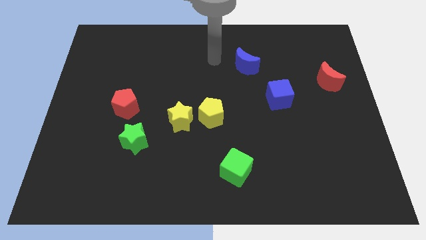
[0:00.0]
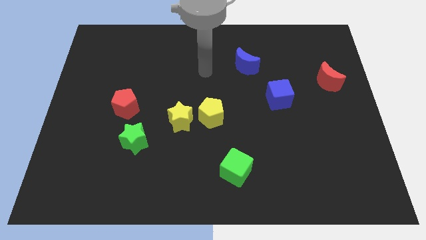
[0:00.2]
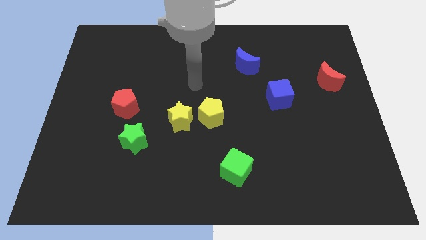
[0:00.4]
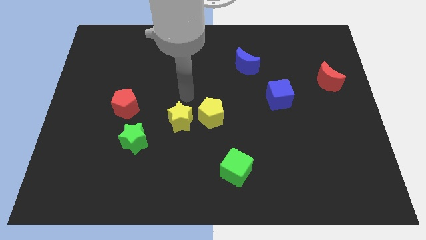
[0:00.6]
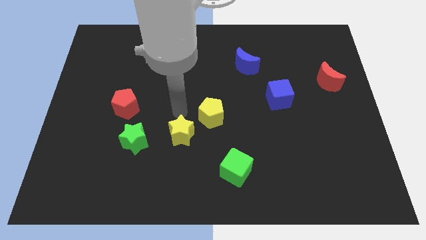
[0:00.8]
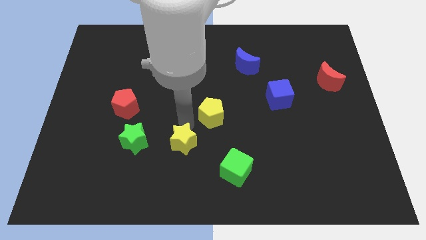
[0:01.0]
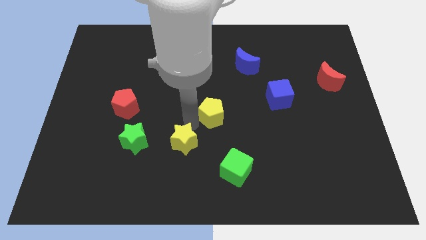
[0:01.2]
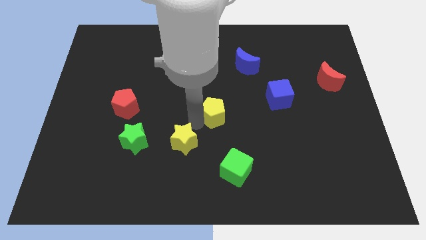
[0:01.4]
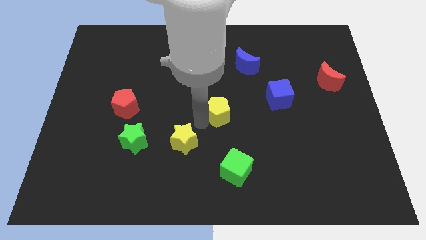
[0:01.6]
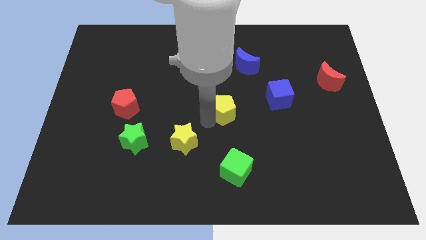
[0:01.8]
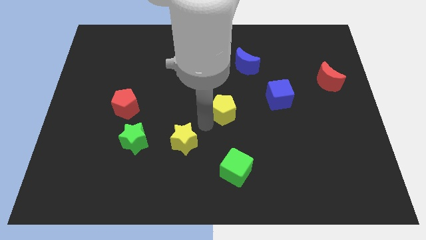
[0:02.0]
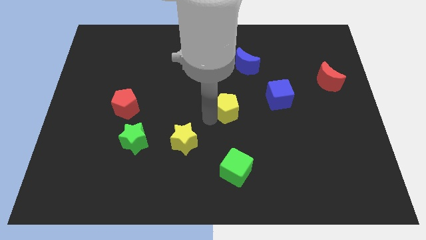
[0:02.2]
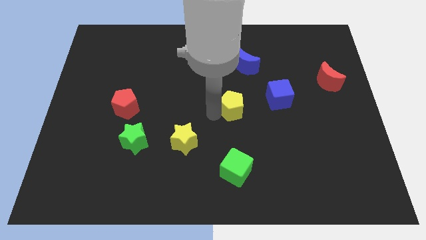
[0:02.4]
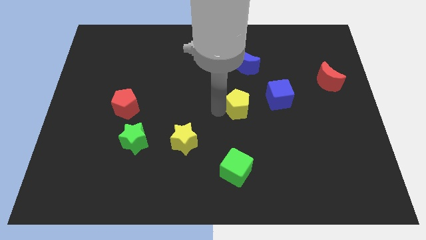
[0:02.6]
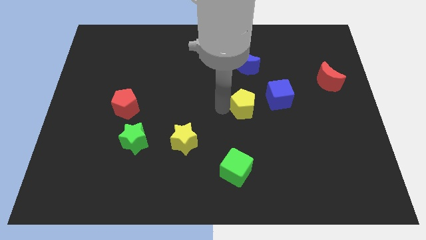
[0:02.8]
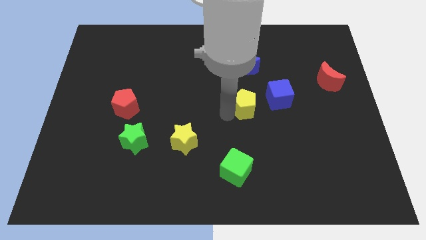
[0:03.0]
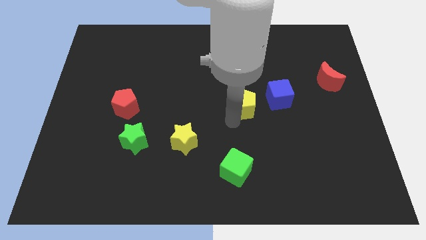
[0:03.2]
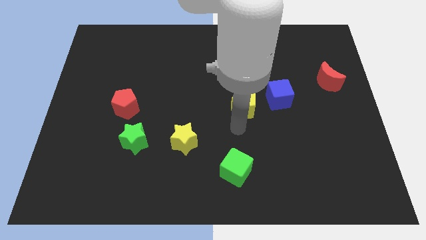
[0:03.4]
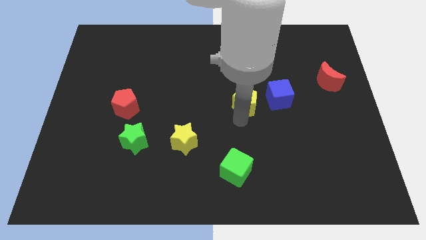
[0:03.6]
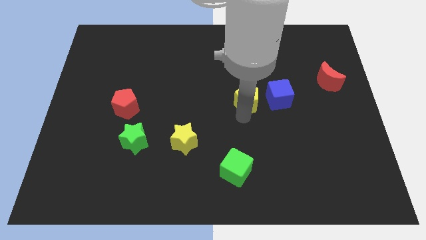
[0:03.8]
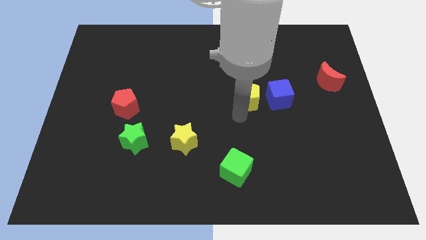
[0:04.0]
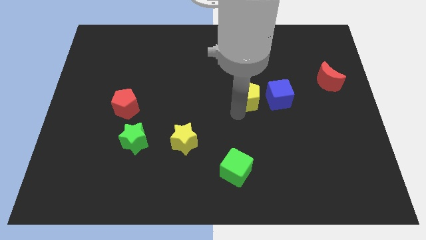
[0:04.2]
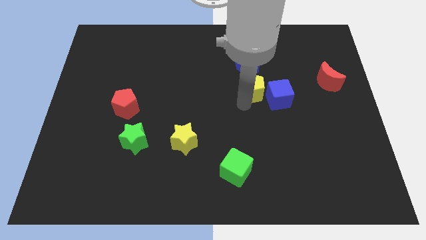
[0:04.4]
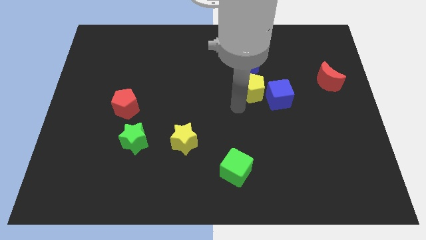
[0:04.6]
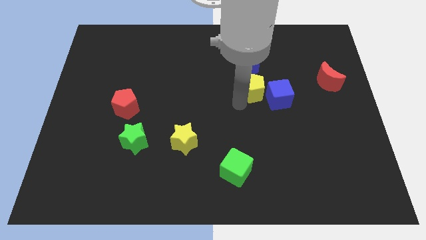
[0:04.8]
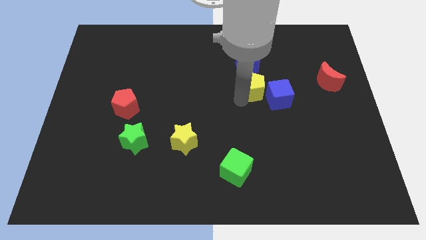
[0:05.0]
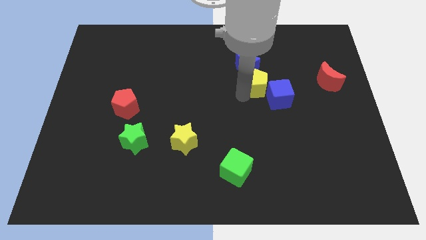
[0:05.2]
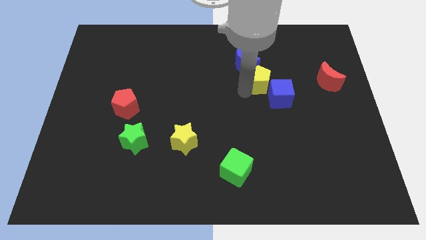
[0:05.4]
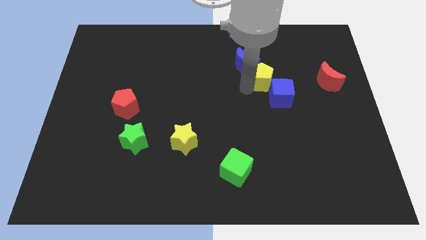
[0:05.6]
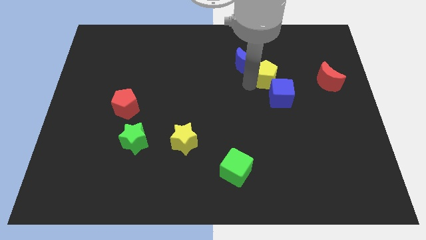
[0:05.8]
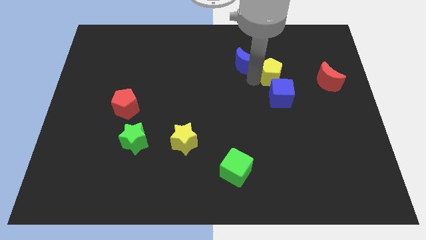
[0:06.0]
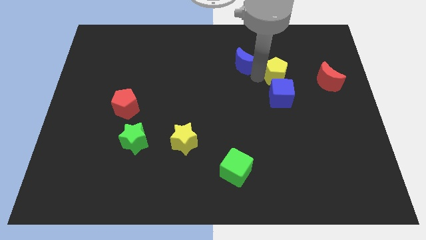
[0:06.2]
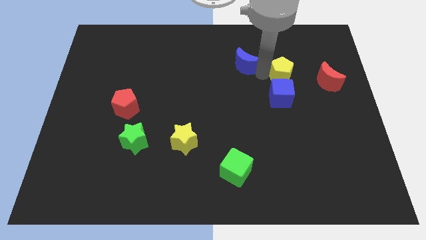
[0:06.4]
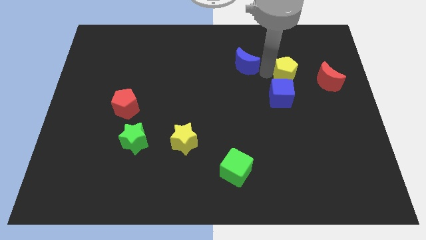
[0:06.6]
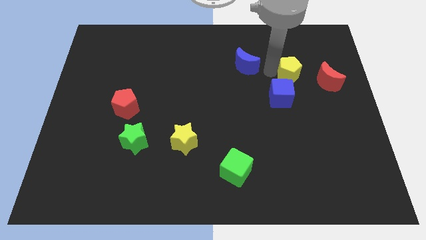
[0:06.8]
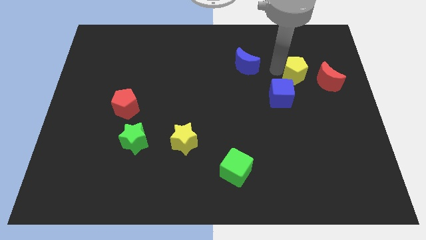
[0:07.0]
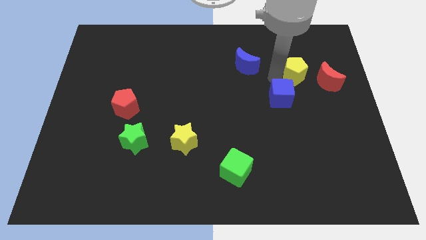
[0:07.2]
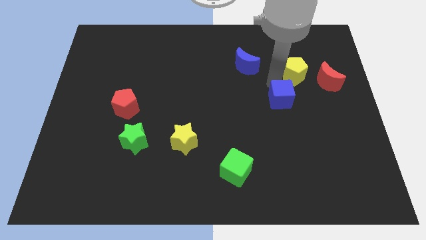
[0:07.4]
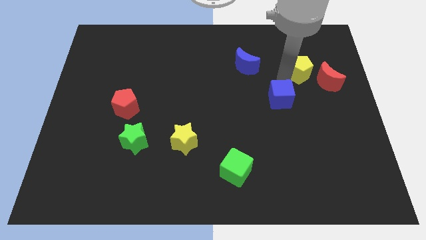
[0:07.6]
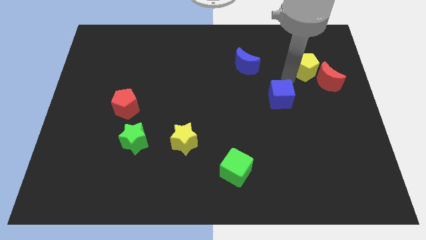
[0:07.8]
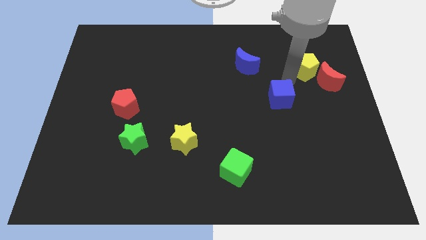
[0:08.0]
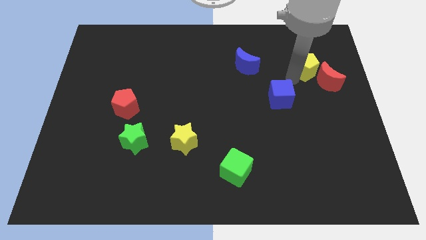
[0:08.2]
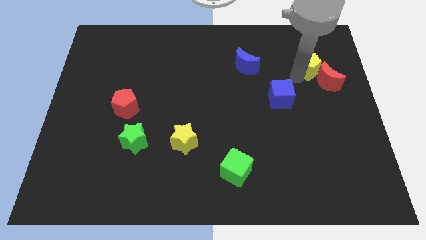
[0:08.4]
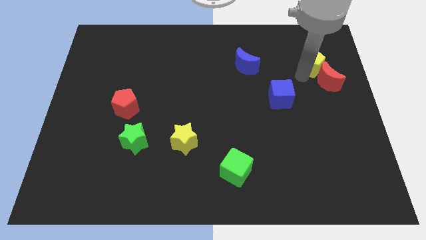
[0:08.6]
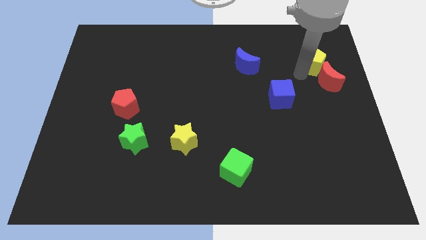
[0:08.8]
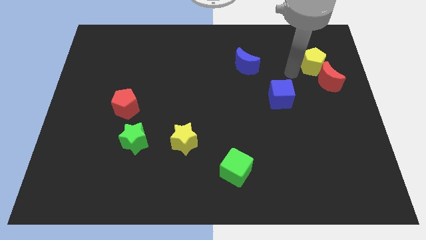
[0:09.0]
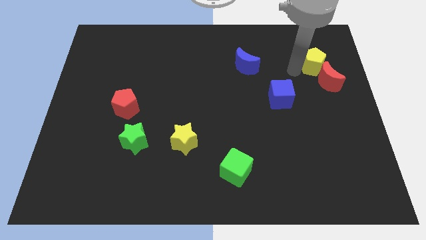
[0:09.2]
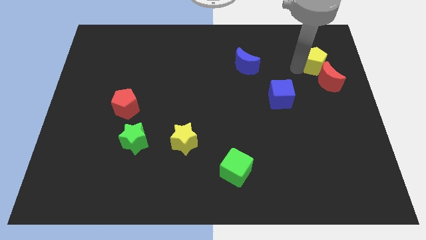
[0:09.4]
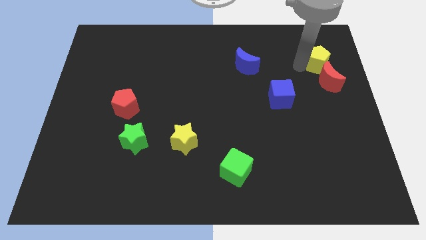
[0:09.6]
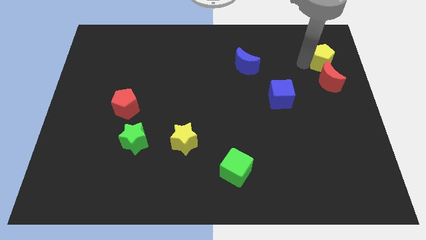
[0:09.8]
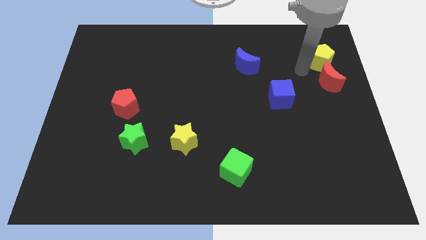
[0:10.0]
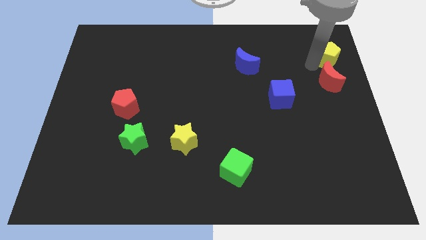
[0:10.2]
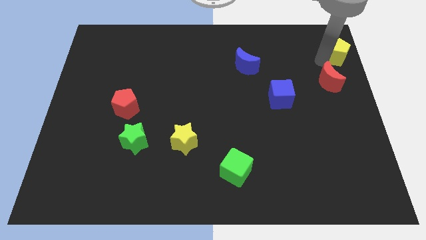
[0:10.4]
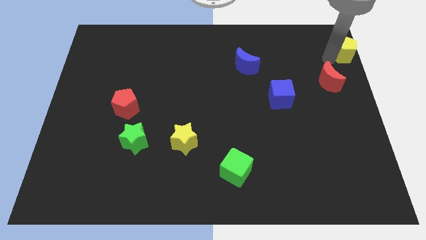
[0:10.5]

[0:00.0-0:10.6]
move the yellow pentagon to the top right corner

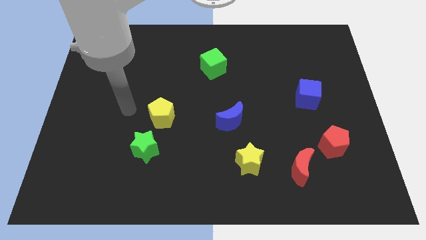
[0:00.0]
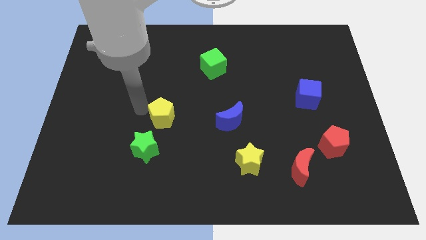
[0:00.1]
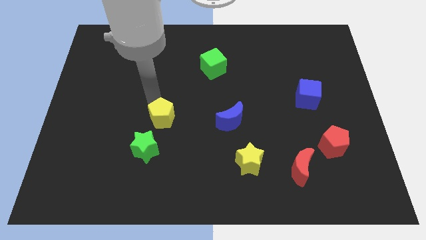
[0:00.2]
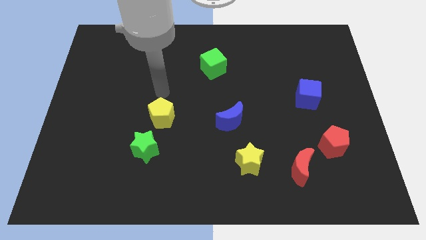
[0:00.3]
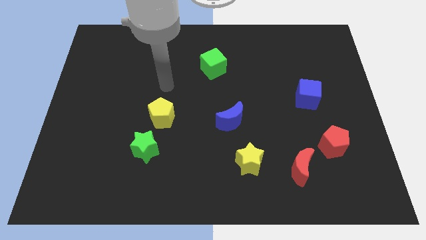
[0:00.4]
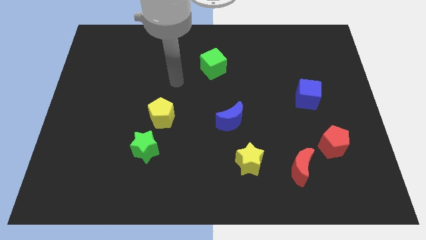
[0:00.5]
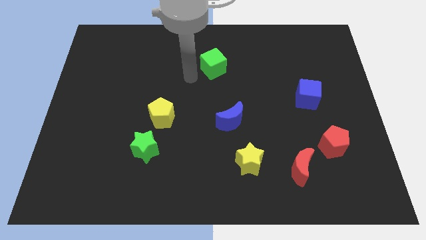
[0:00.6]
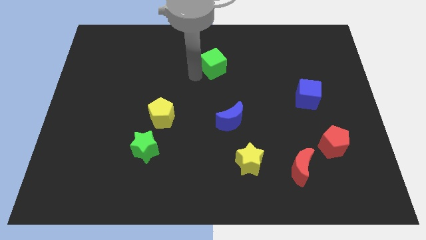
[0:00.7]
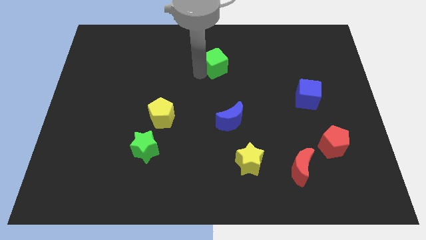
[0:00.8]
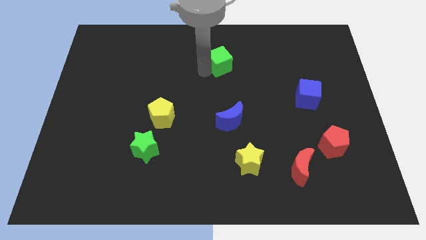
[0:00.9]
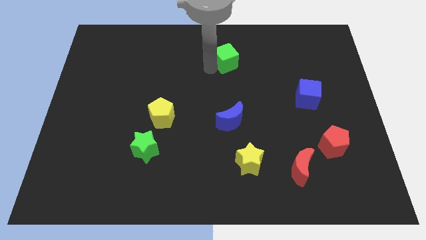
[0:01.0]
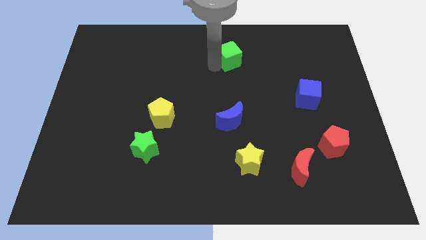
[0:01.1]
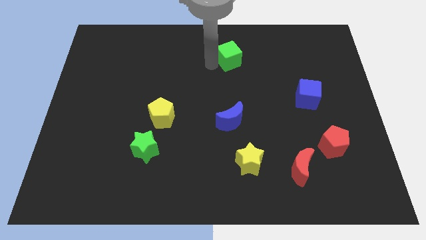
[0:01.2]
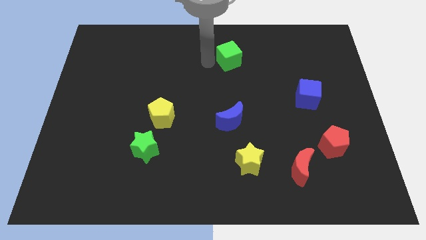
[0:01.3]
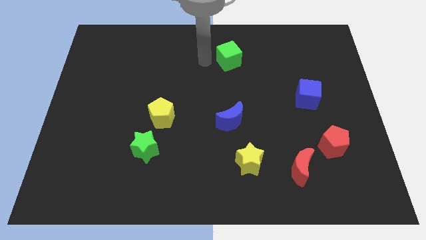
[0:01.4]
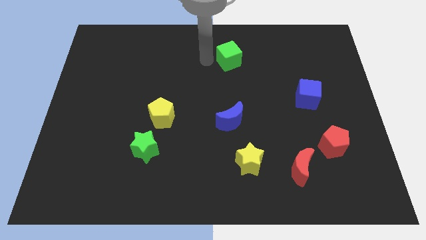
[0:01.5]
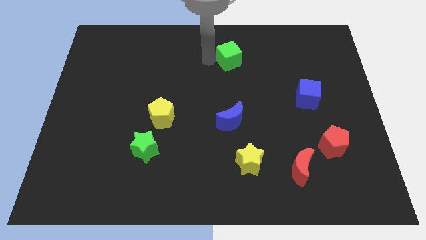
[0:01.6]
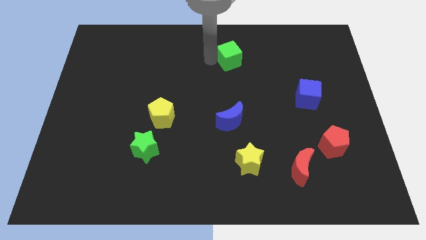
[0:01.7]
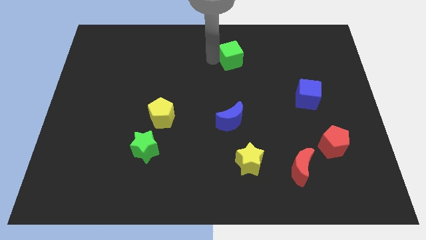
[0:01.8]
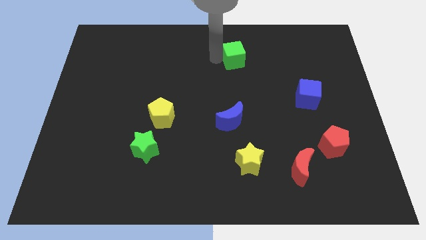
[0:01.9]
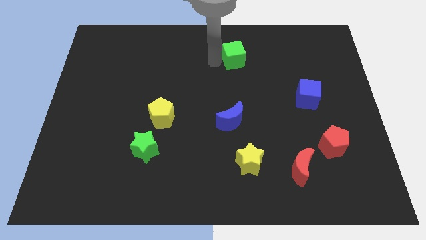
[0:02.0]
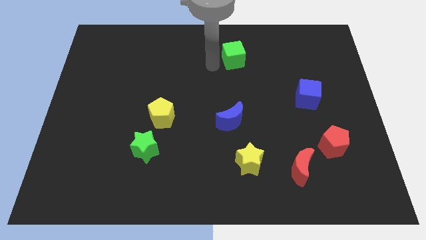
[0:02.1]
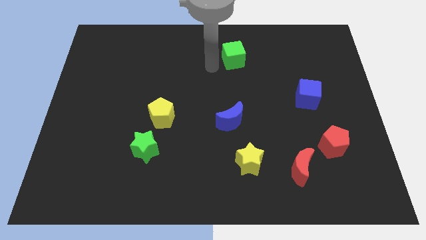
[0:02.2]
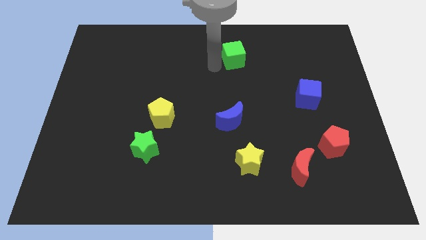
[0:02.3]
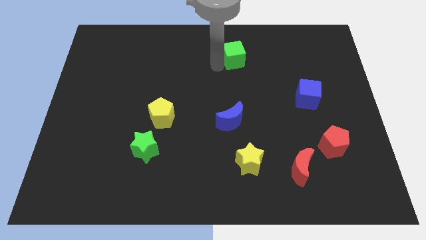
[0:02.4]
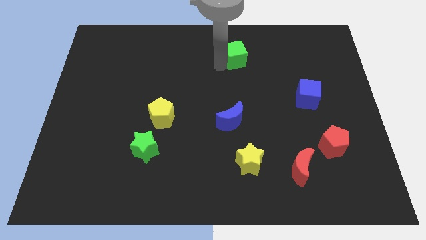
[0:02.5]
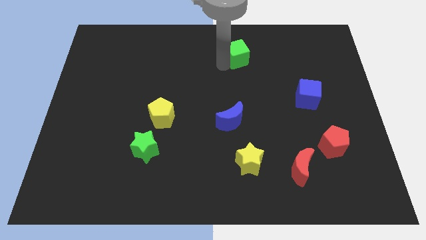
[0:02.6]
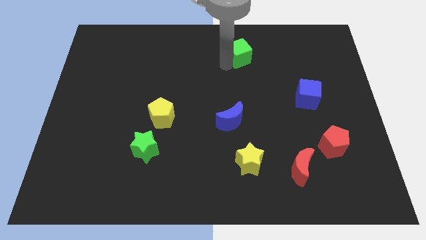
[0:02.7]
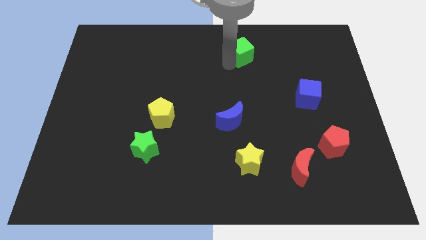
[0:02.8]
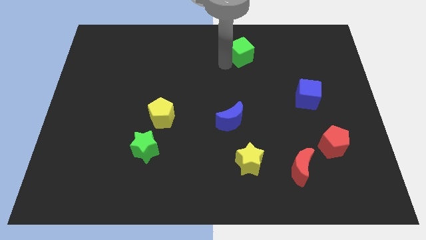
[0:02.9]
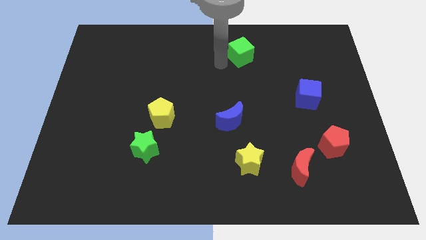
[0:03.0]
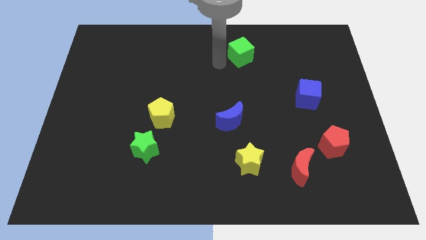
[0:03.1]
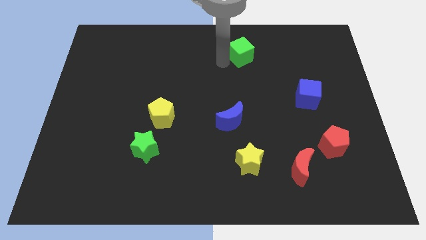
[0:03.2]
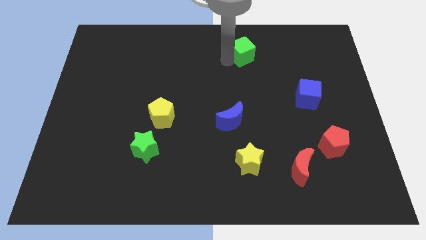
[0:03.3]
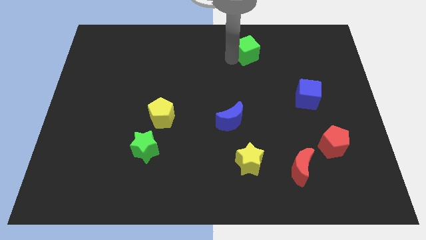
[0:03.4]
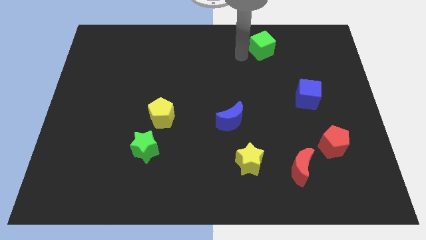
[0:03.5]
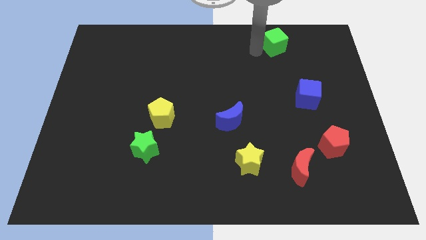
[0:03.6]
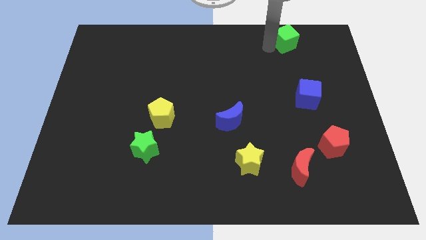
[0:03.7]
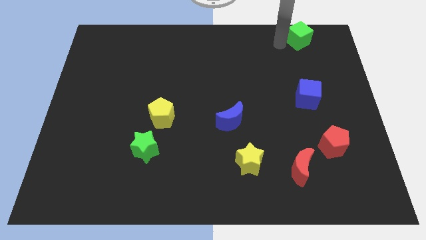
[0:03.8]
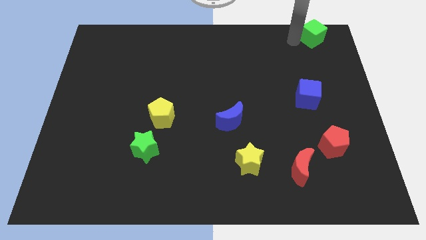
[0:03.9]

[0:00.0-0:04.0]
push the green cube to the top right corner
